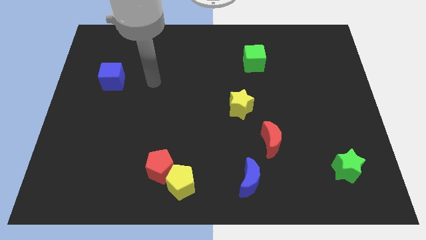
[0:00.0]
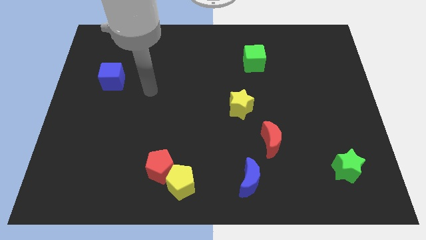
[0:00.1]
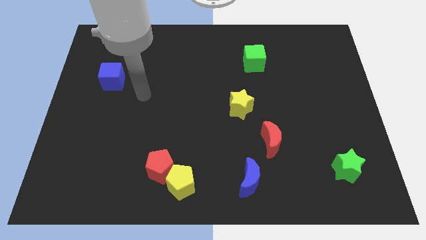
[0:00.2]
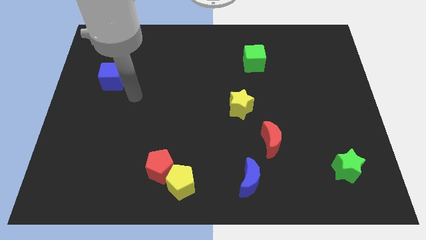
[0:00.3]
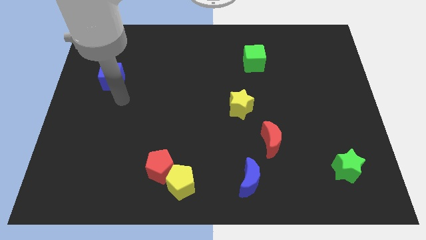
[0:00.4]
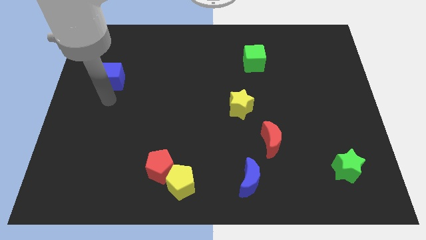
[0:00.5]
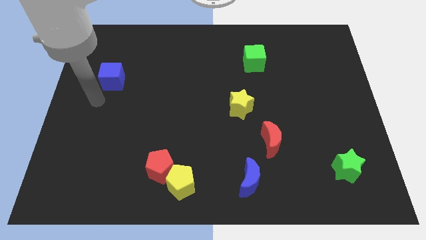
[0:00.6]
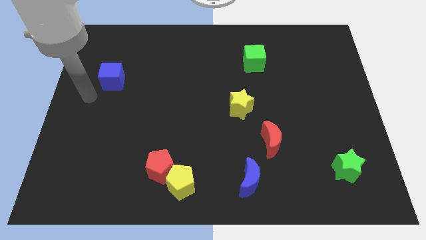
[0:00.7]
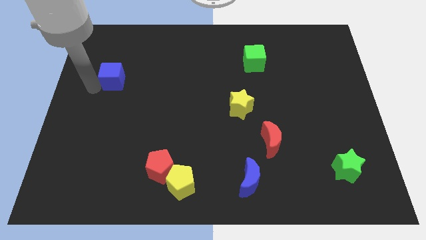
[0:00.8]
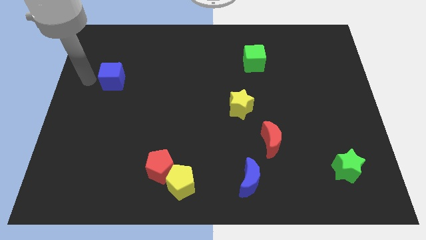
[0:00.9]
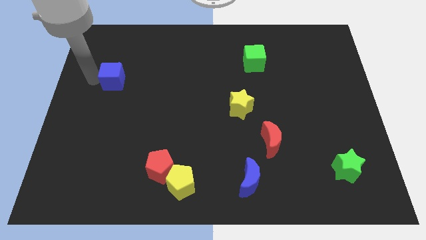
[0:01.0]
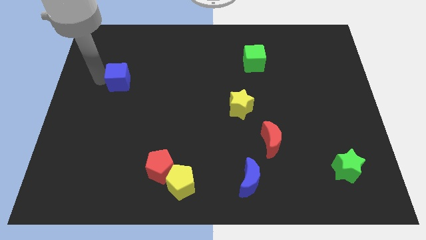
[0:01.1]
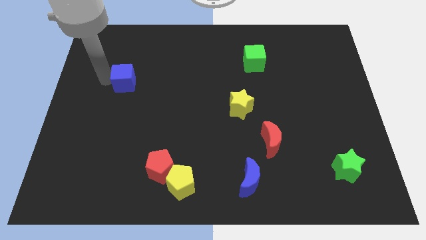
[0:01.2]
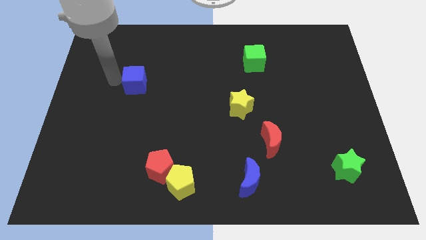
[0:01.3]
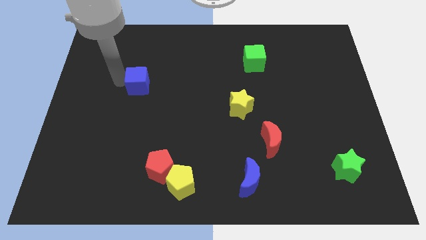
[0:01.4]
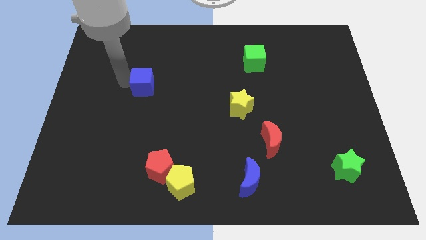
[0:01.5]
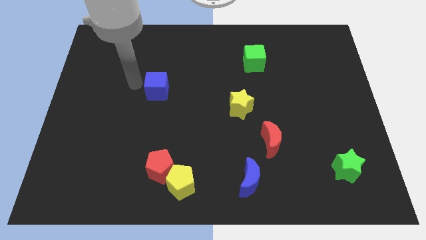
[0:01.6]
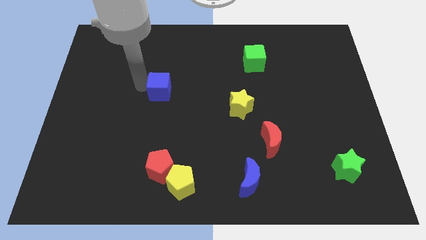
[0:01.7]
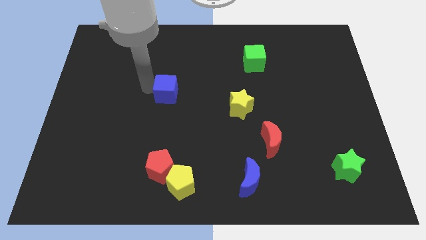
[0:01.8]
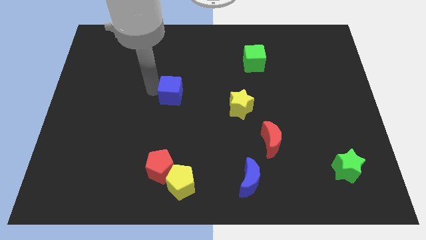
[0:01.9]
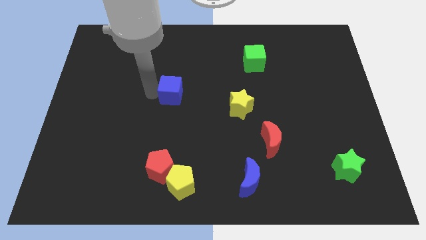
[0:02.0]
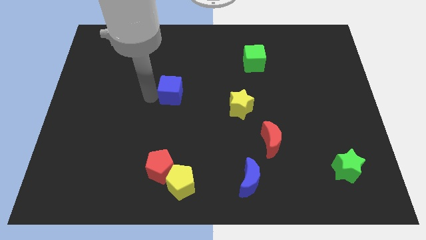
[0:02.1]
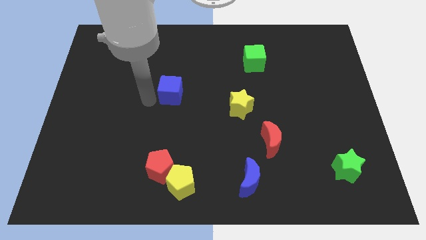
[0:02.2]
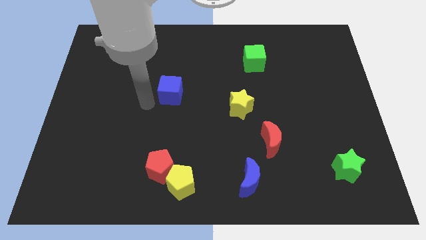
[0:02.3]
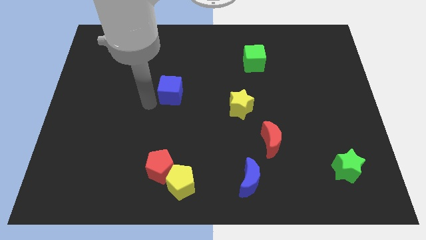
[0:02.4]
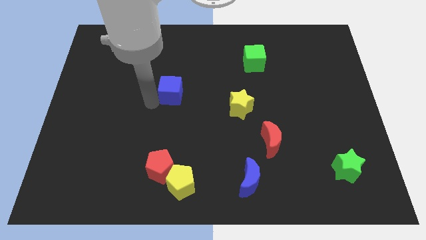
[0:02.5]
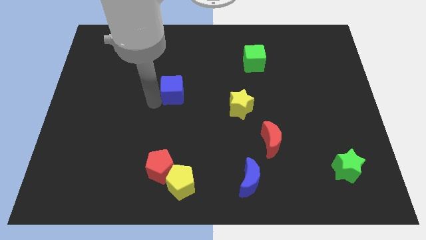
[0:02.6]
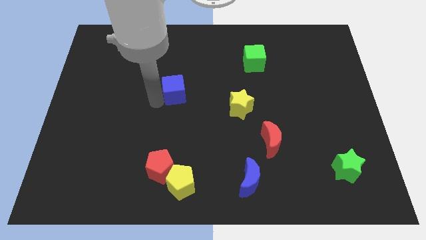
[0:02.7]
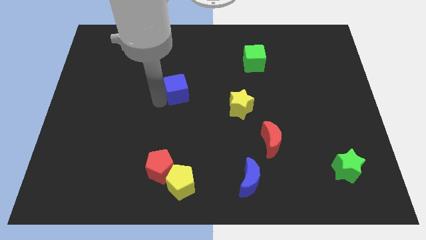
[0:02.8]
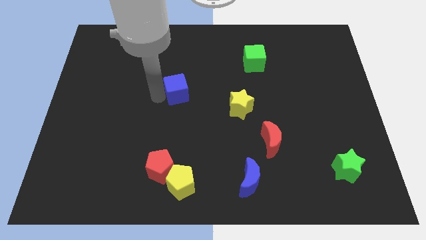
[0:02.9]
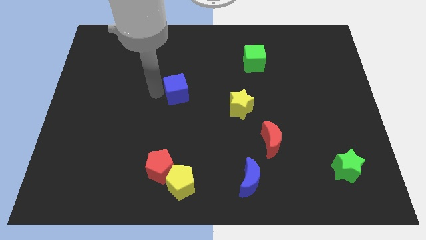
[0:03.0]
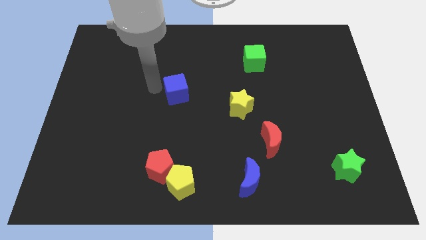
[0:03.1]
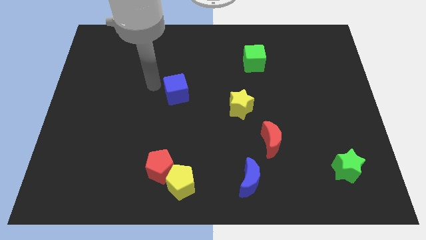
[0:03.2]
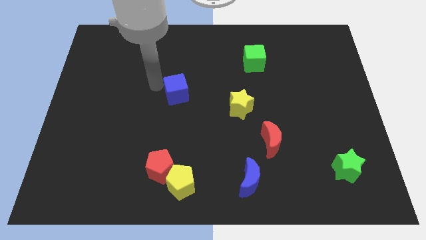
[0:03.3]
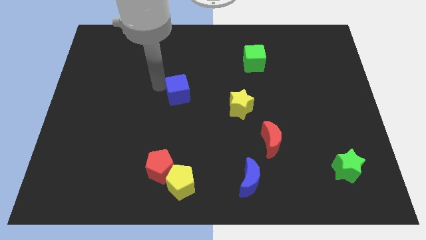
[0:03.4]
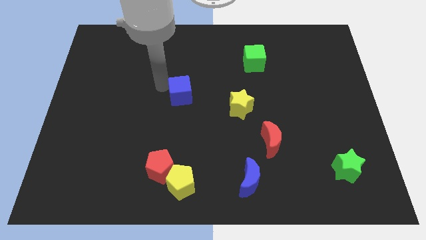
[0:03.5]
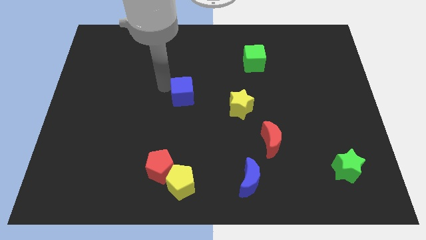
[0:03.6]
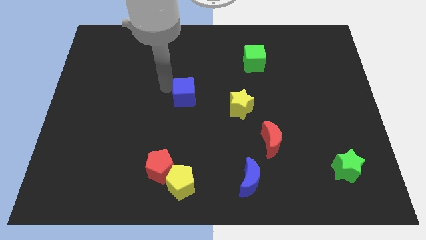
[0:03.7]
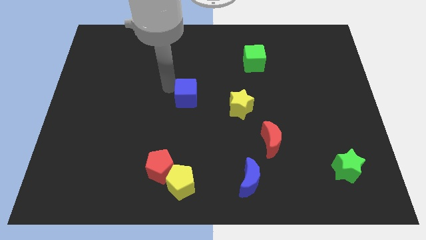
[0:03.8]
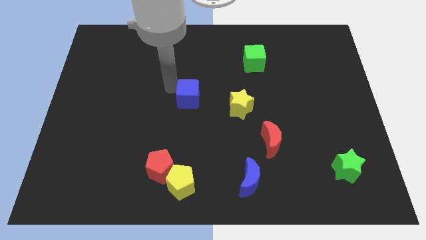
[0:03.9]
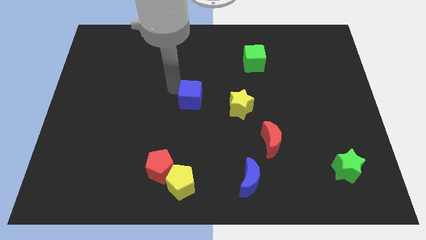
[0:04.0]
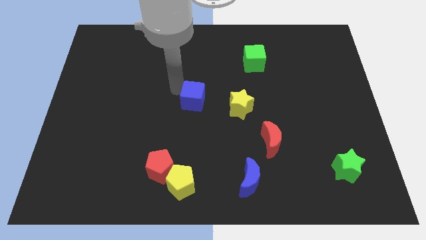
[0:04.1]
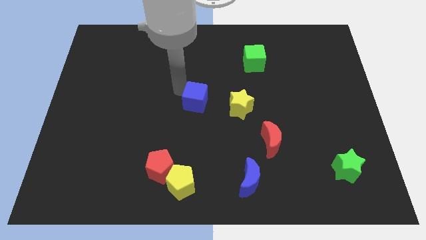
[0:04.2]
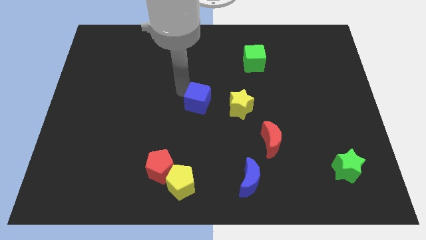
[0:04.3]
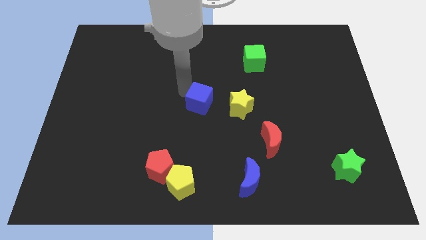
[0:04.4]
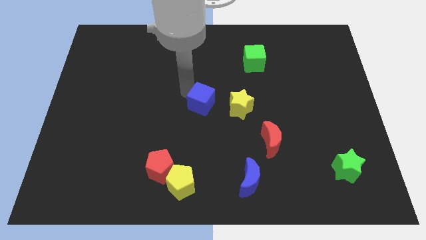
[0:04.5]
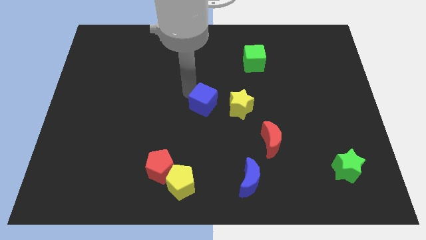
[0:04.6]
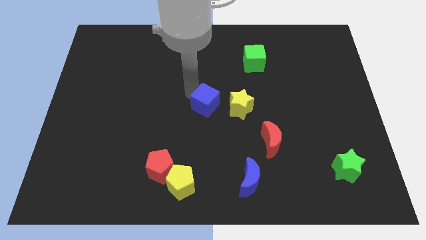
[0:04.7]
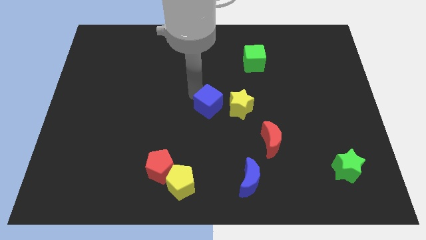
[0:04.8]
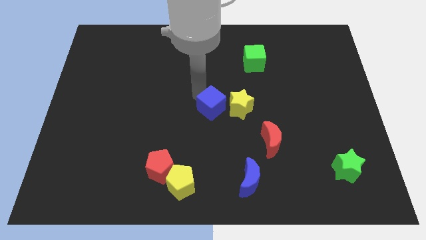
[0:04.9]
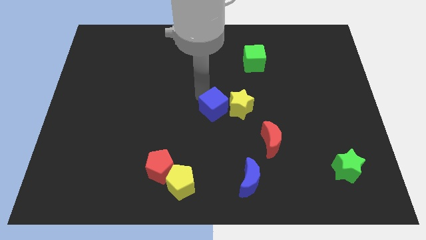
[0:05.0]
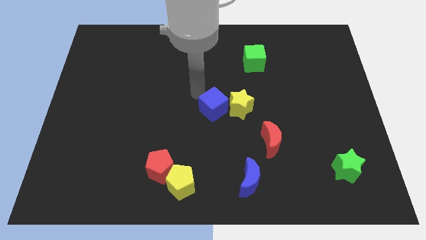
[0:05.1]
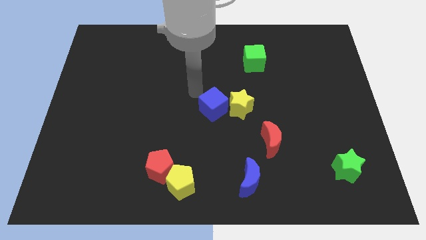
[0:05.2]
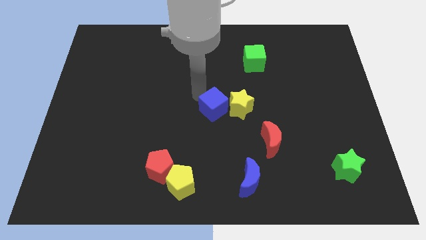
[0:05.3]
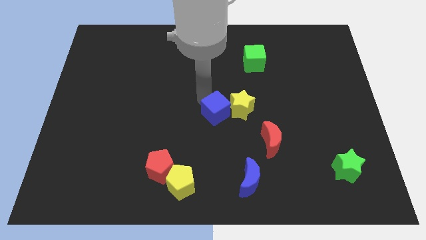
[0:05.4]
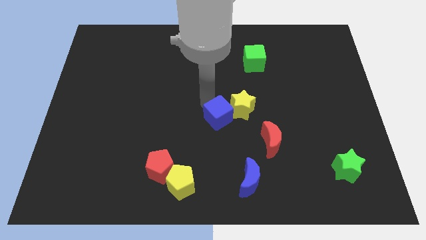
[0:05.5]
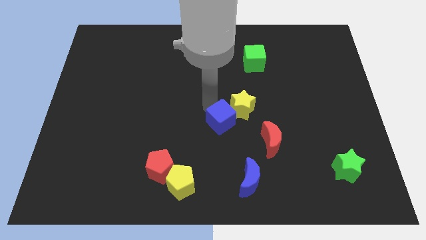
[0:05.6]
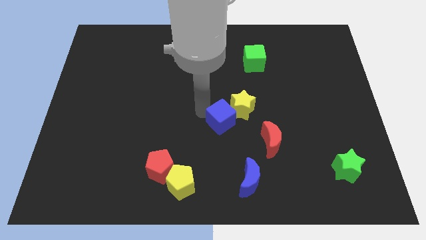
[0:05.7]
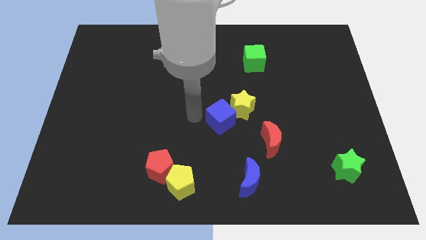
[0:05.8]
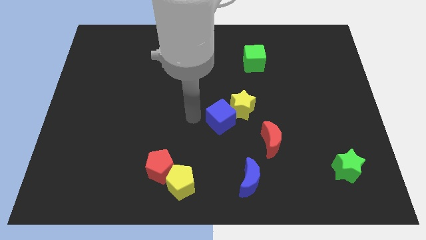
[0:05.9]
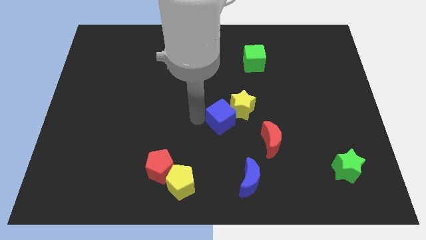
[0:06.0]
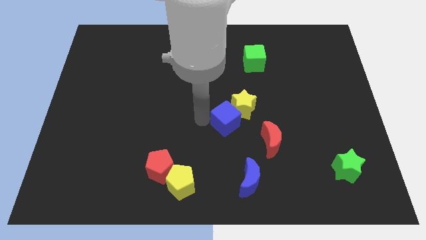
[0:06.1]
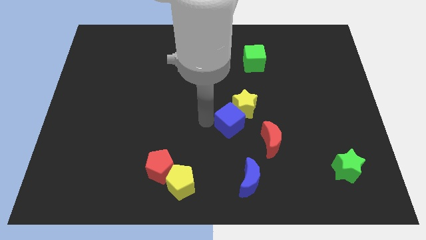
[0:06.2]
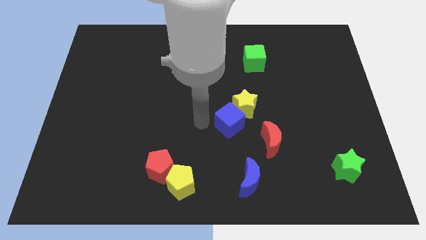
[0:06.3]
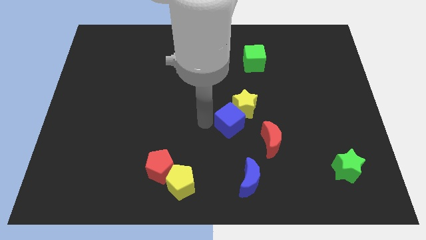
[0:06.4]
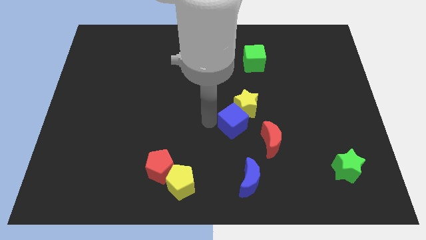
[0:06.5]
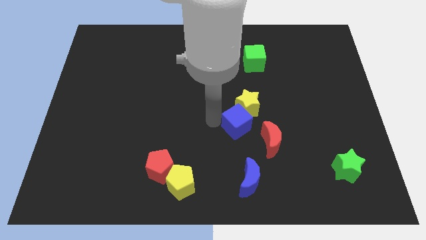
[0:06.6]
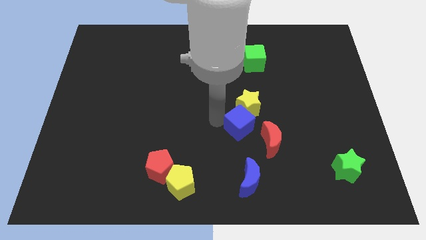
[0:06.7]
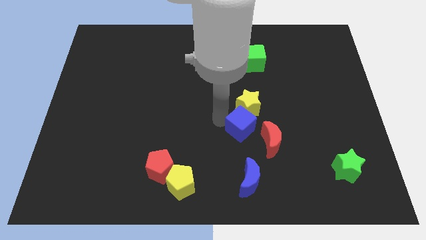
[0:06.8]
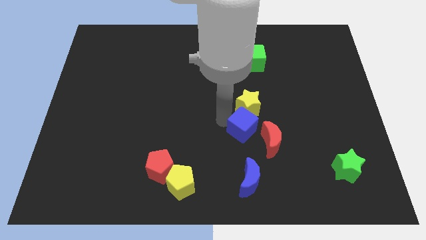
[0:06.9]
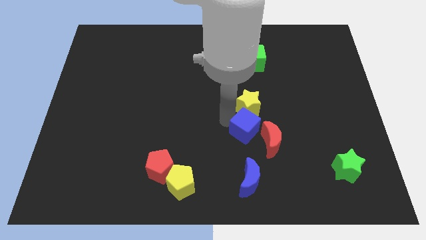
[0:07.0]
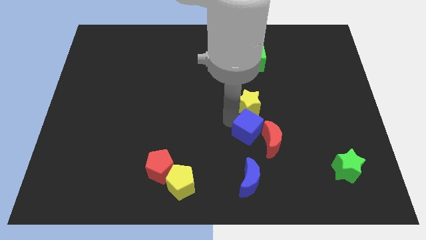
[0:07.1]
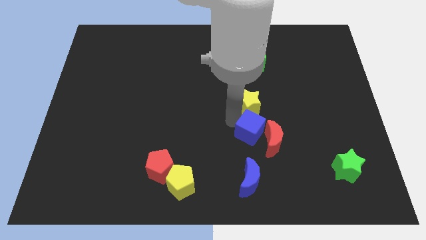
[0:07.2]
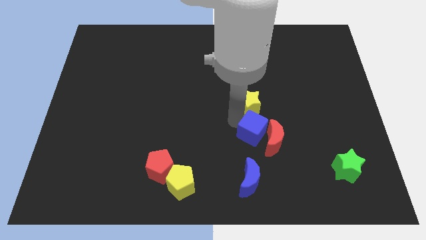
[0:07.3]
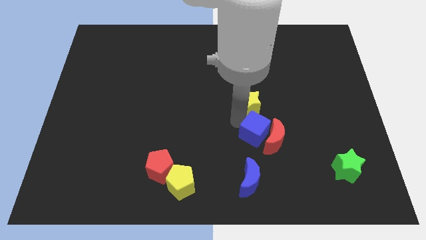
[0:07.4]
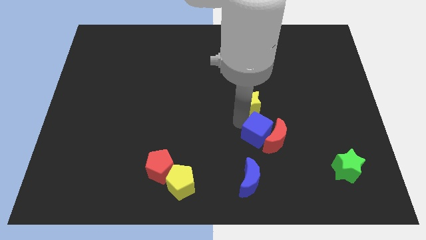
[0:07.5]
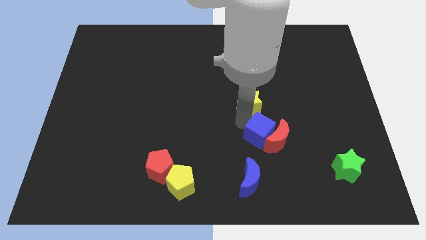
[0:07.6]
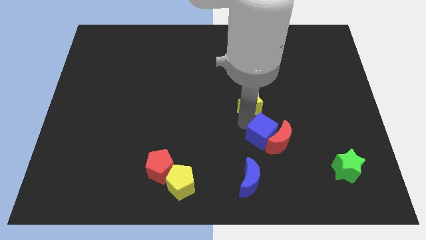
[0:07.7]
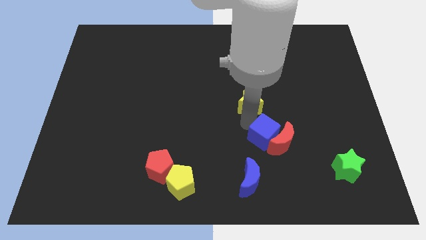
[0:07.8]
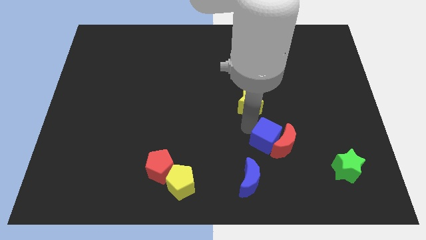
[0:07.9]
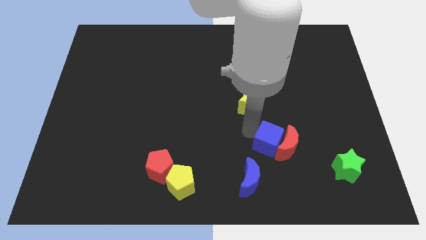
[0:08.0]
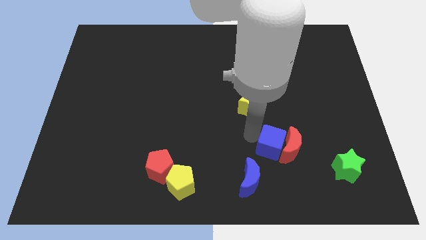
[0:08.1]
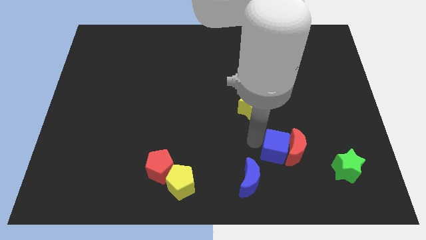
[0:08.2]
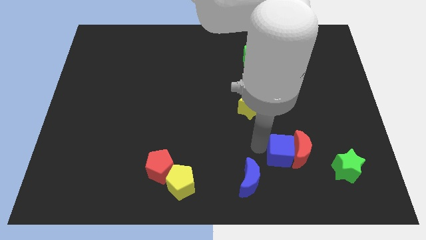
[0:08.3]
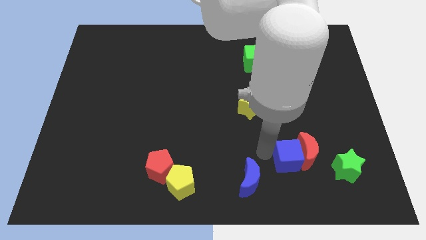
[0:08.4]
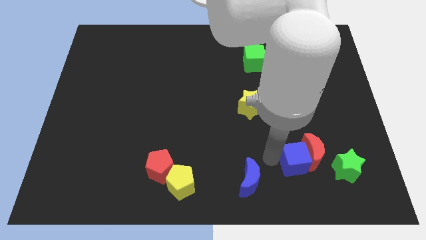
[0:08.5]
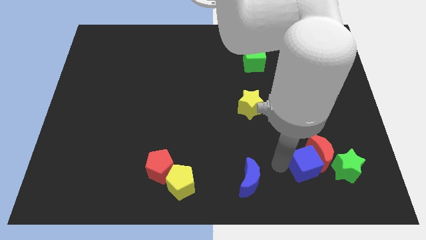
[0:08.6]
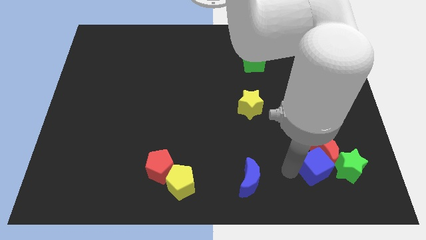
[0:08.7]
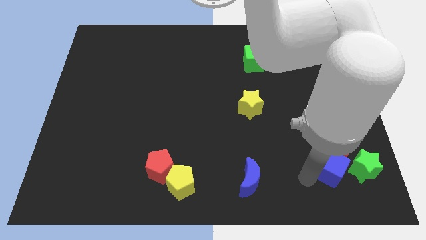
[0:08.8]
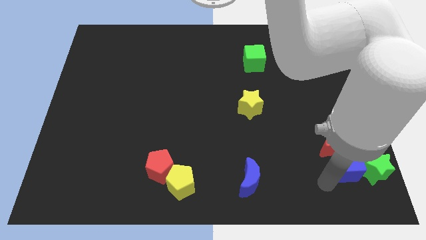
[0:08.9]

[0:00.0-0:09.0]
move the blue cube to the top left of the green star
